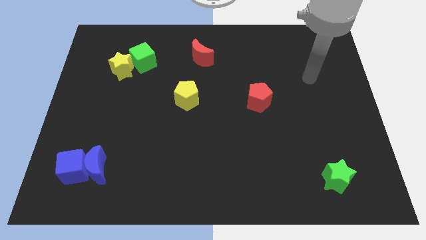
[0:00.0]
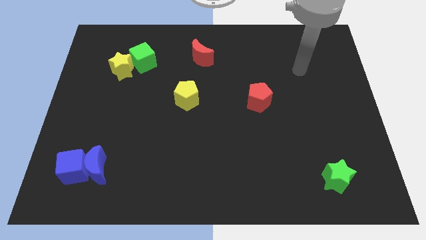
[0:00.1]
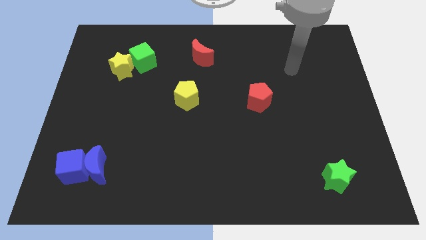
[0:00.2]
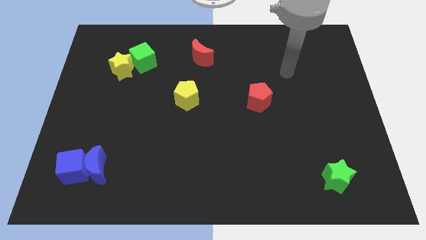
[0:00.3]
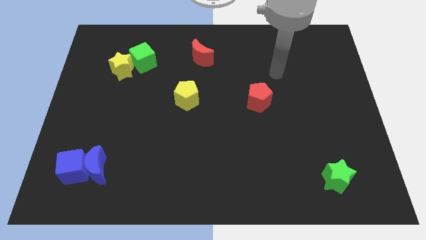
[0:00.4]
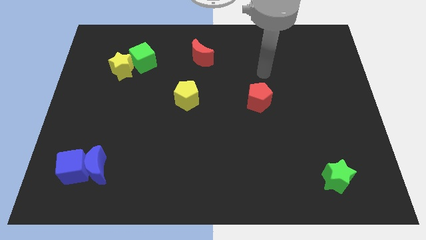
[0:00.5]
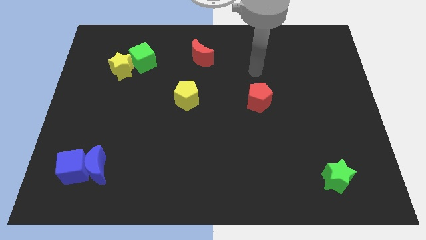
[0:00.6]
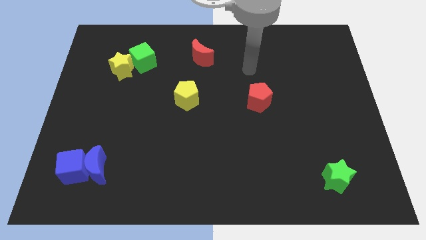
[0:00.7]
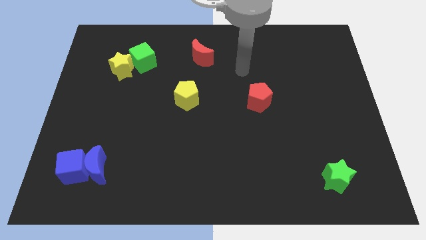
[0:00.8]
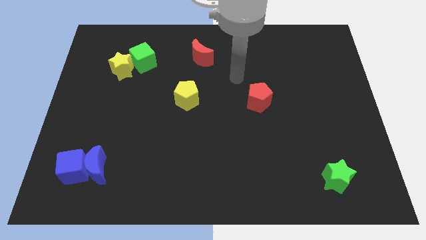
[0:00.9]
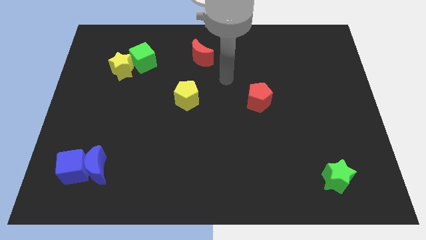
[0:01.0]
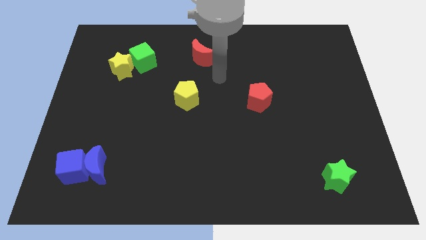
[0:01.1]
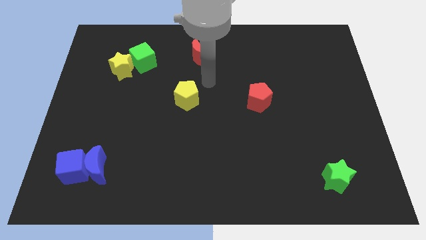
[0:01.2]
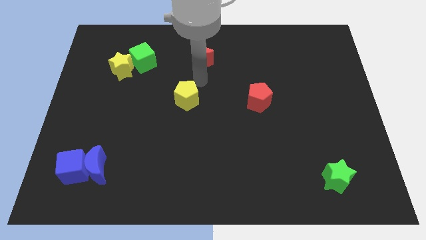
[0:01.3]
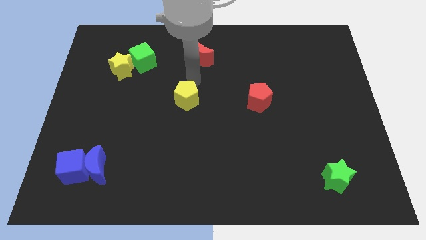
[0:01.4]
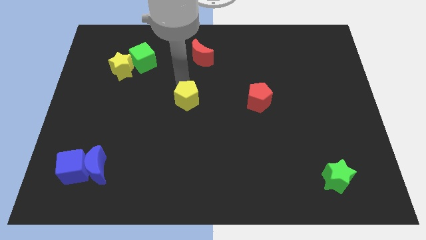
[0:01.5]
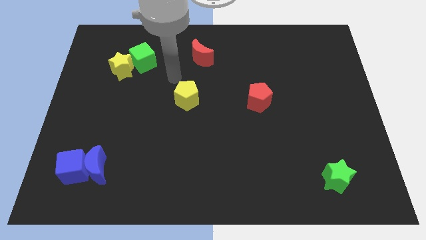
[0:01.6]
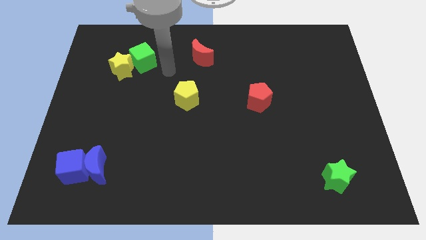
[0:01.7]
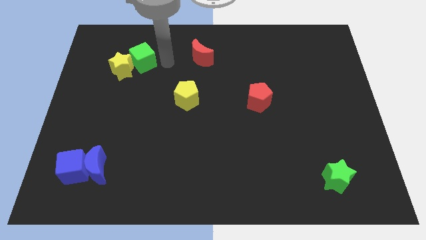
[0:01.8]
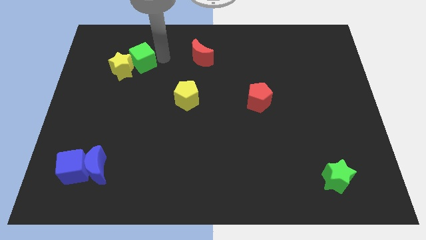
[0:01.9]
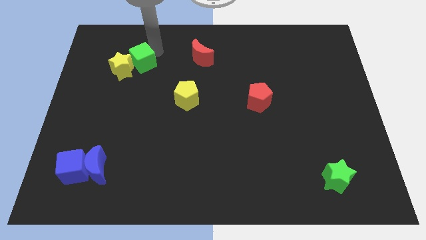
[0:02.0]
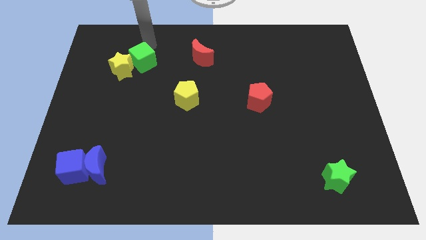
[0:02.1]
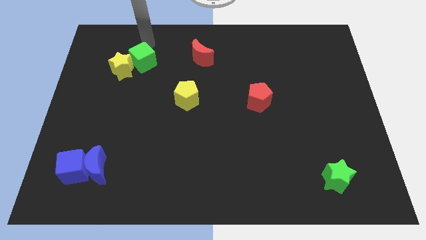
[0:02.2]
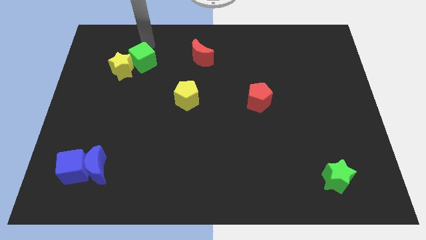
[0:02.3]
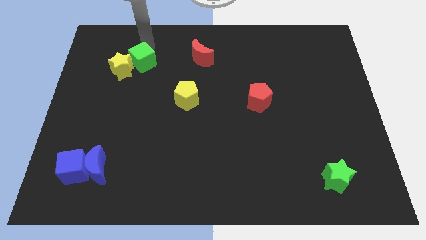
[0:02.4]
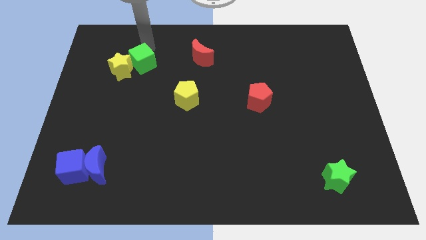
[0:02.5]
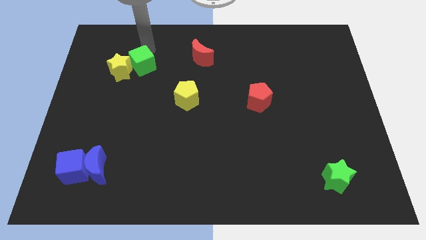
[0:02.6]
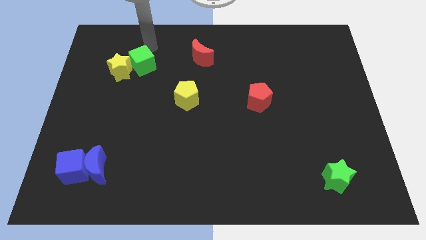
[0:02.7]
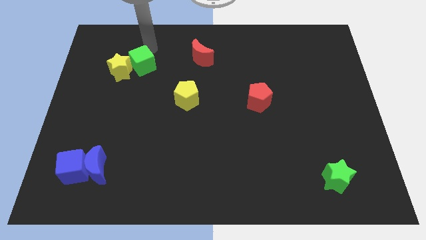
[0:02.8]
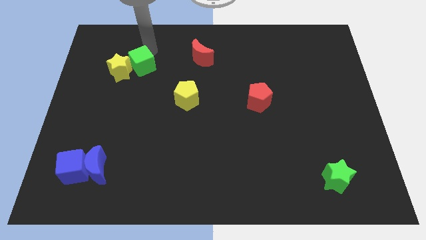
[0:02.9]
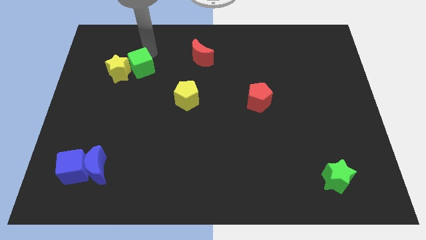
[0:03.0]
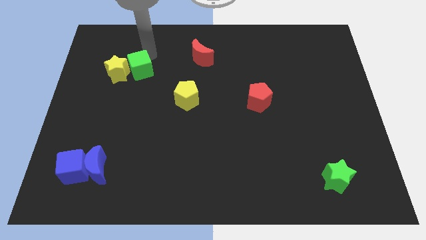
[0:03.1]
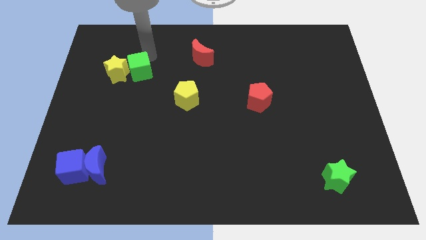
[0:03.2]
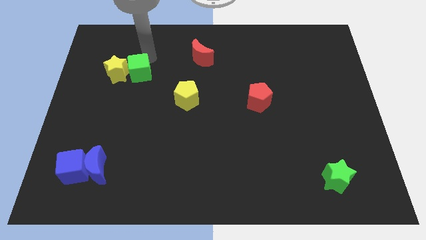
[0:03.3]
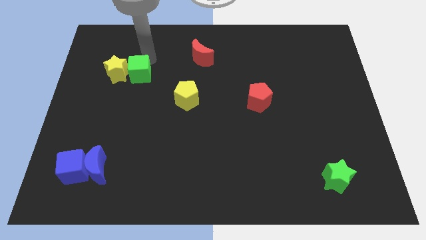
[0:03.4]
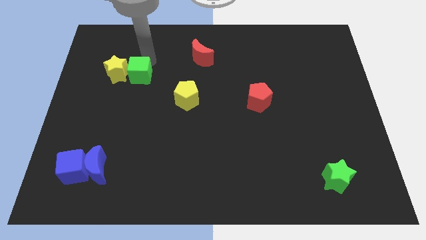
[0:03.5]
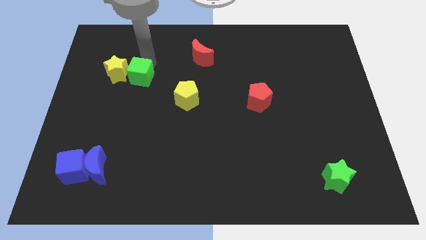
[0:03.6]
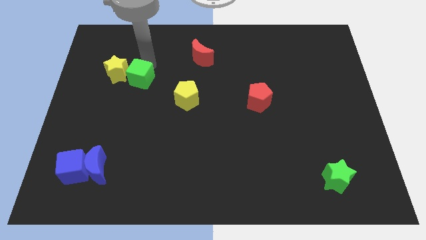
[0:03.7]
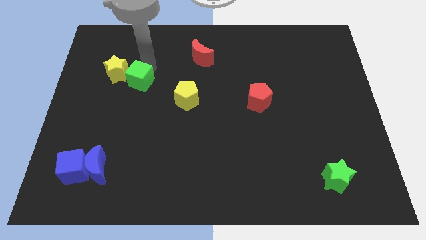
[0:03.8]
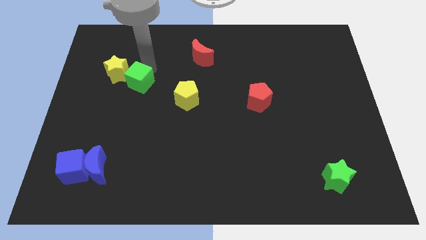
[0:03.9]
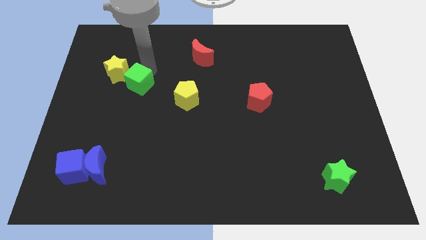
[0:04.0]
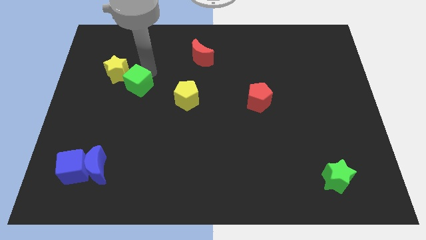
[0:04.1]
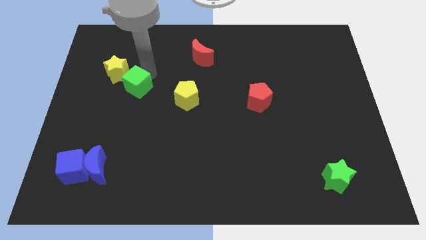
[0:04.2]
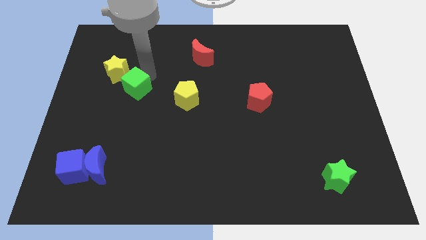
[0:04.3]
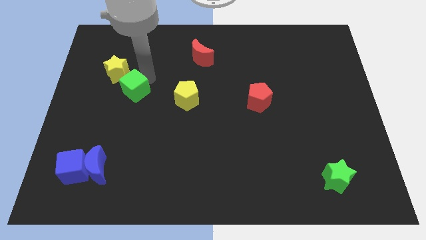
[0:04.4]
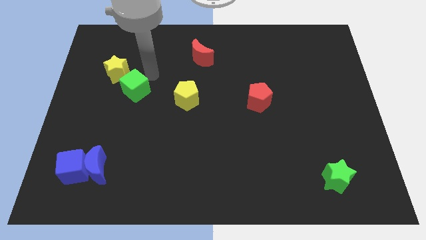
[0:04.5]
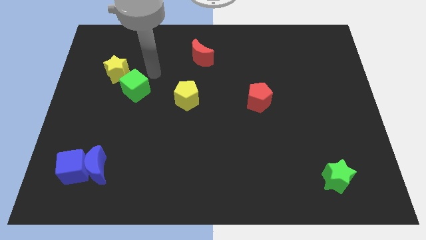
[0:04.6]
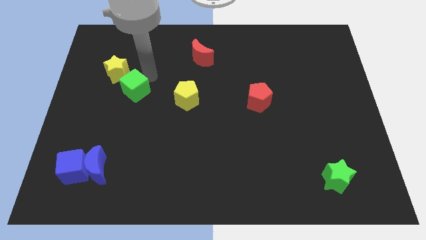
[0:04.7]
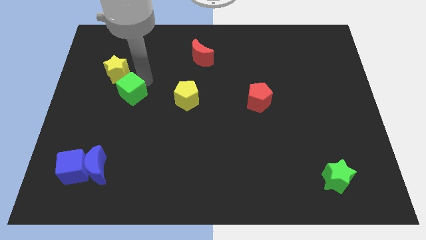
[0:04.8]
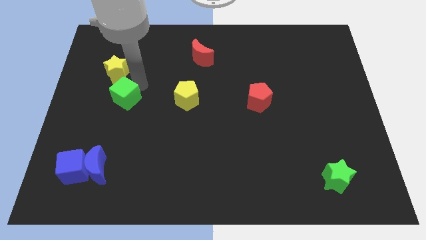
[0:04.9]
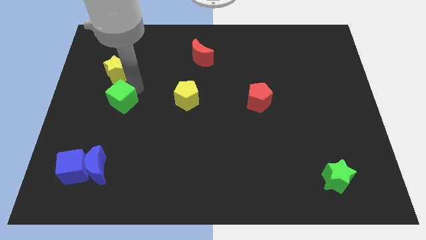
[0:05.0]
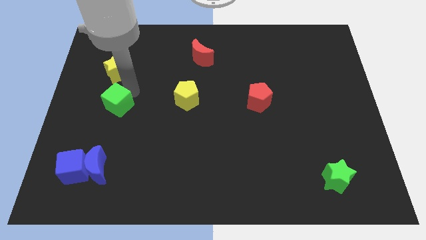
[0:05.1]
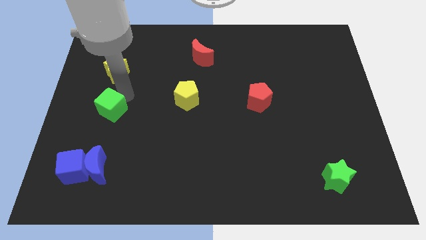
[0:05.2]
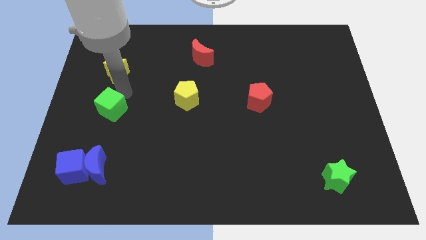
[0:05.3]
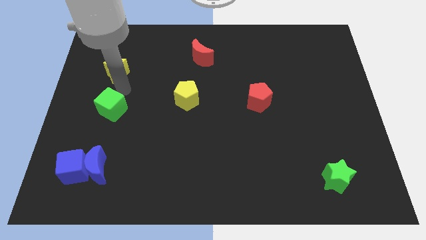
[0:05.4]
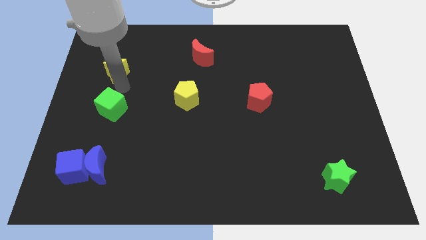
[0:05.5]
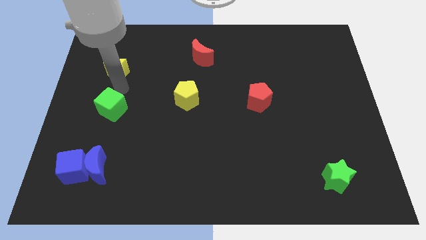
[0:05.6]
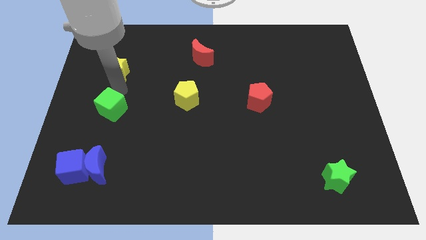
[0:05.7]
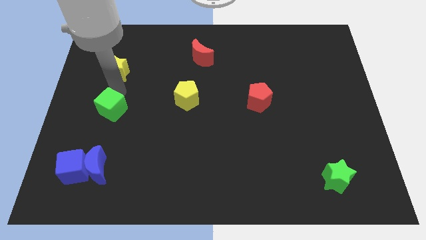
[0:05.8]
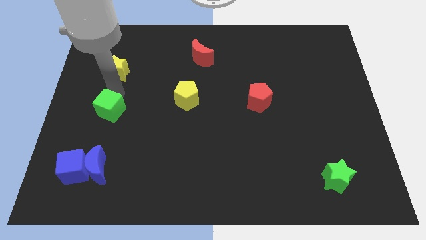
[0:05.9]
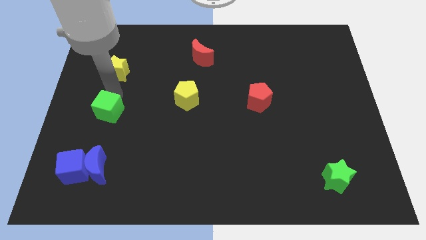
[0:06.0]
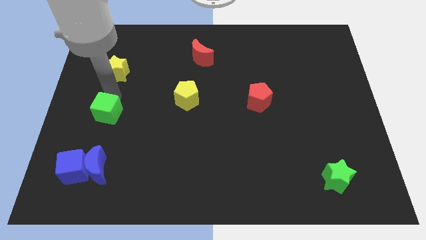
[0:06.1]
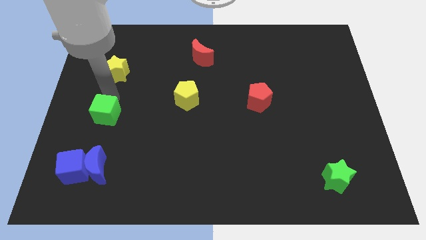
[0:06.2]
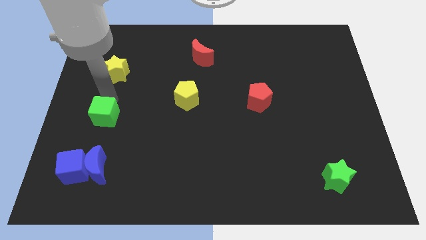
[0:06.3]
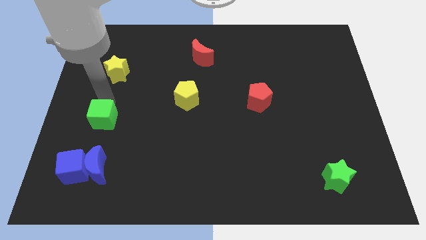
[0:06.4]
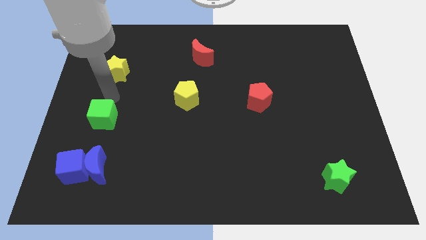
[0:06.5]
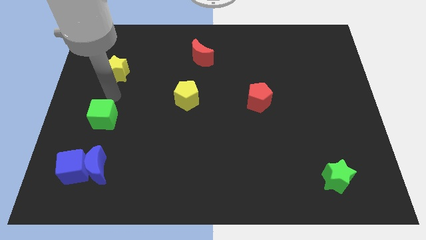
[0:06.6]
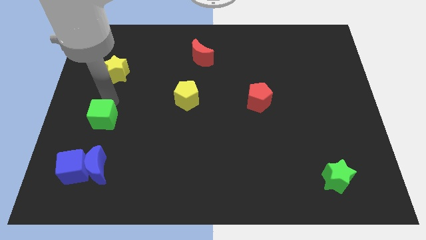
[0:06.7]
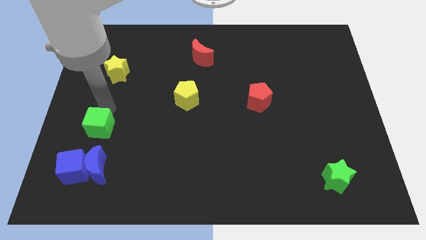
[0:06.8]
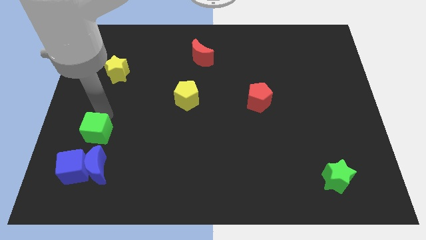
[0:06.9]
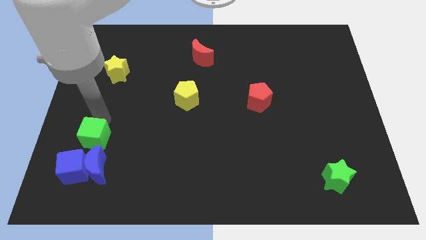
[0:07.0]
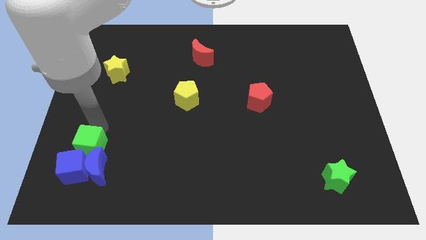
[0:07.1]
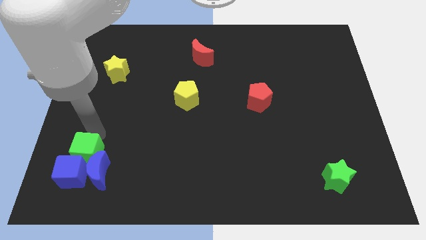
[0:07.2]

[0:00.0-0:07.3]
put the green cube next to the blue cube

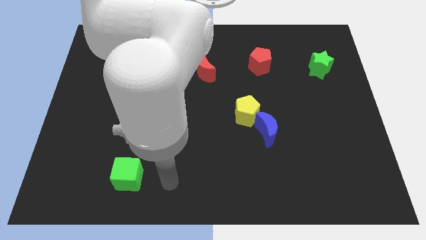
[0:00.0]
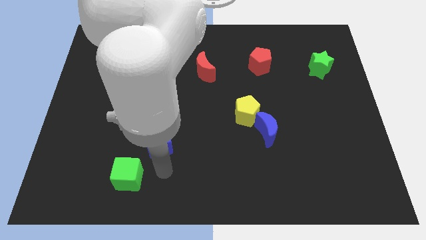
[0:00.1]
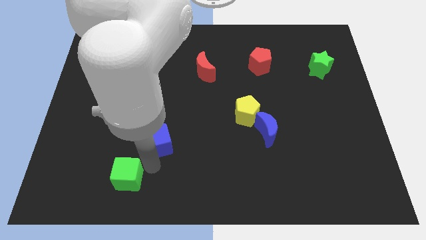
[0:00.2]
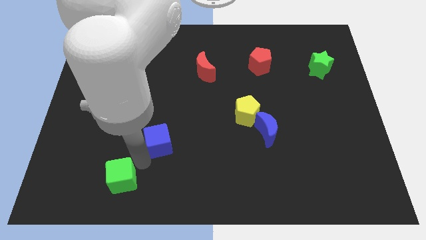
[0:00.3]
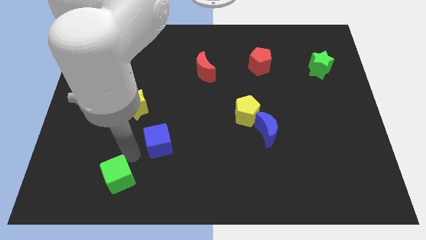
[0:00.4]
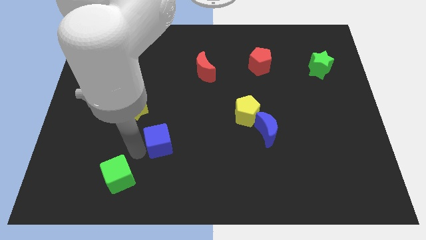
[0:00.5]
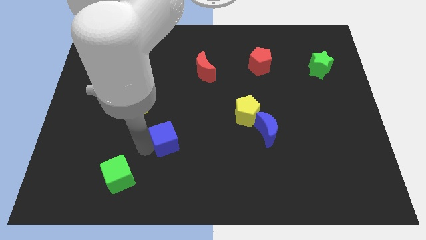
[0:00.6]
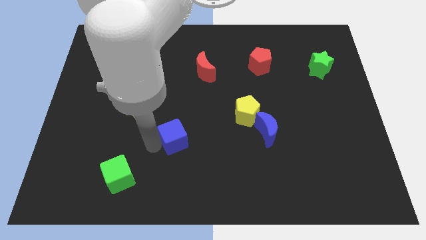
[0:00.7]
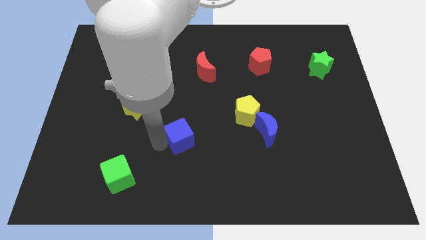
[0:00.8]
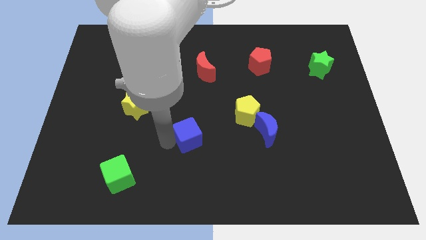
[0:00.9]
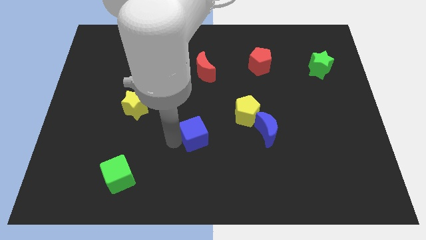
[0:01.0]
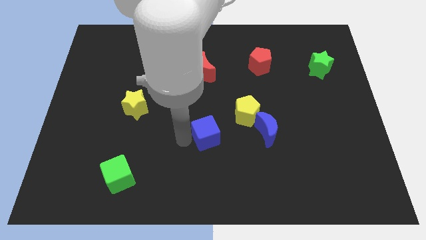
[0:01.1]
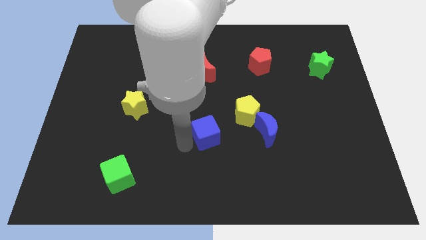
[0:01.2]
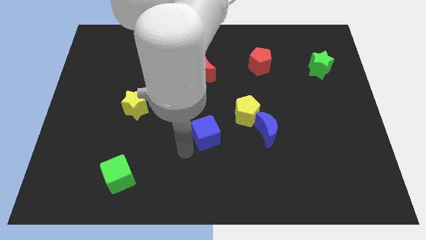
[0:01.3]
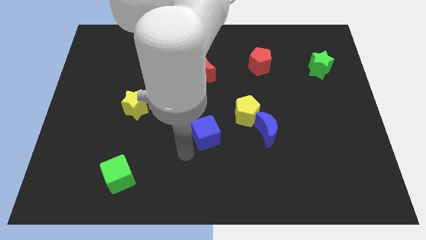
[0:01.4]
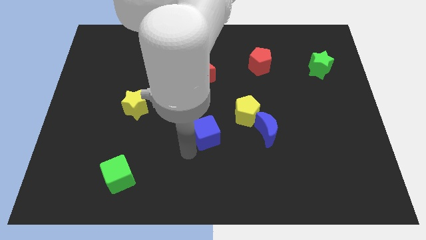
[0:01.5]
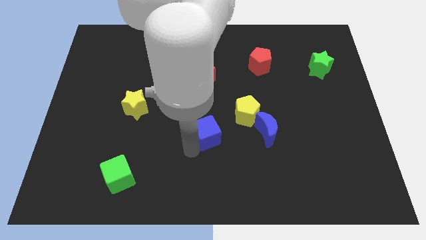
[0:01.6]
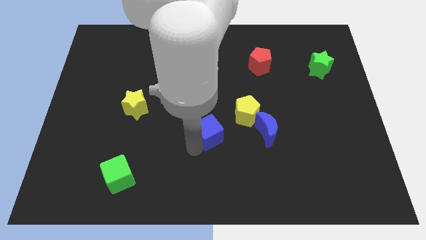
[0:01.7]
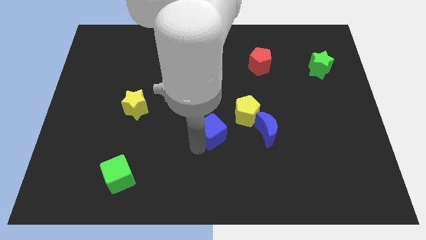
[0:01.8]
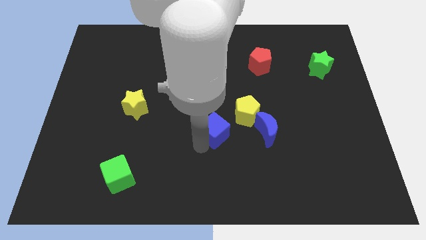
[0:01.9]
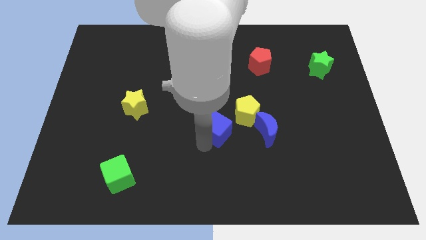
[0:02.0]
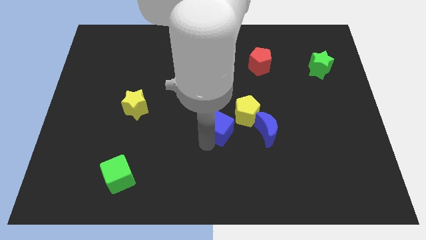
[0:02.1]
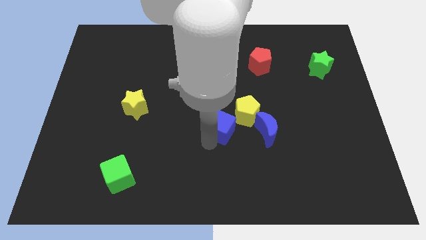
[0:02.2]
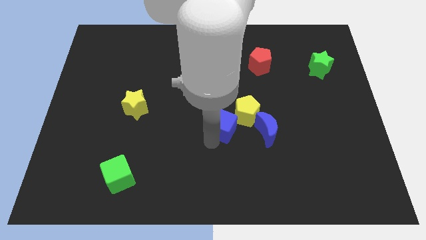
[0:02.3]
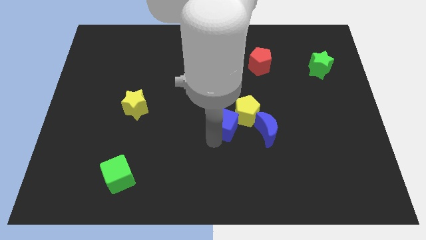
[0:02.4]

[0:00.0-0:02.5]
push the blue cube close to the yellow pentagon
